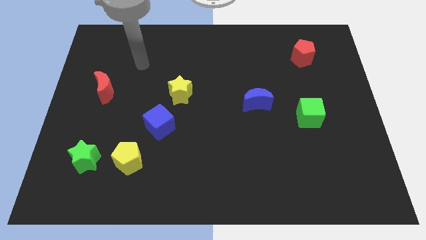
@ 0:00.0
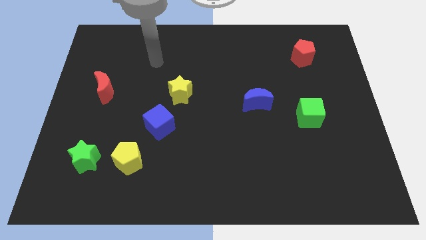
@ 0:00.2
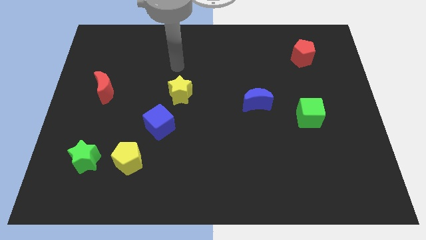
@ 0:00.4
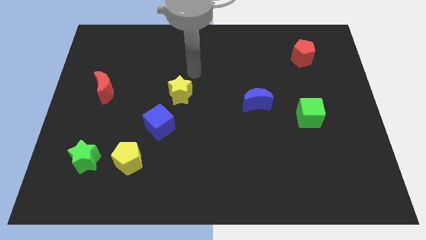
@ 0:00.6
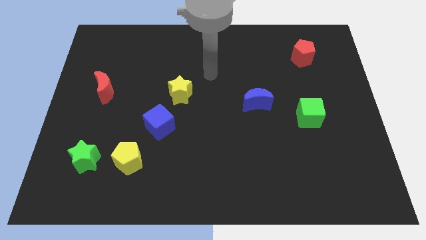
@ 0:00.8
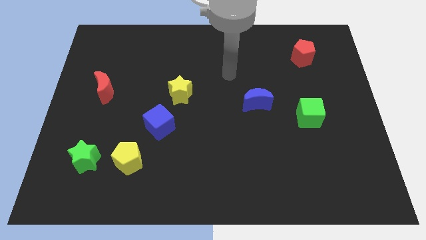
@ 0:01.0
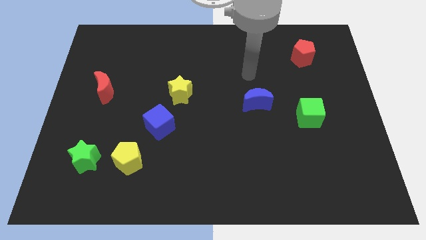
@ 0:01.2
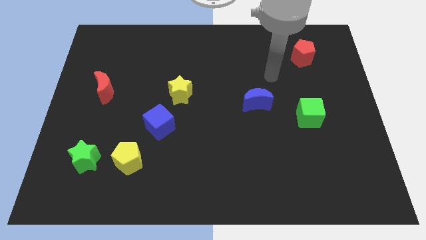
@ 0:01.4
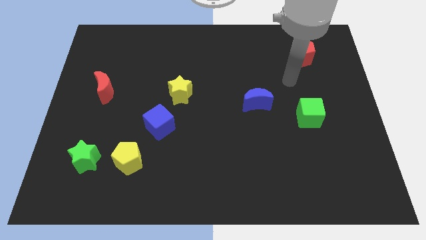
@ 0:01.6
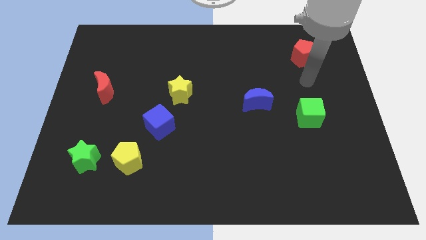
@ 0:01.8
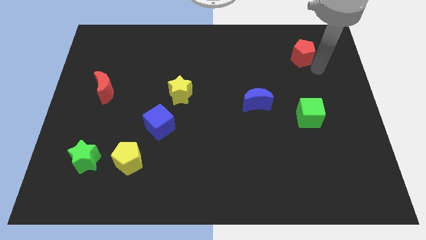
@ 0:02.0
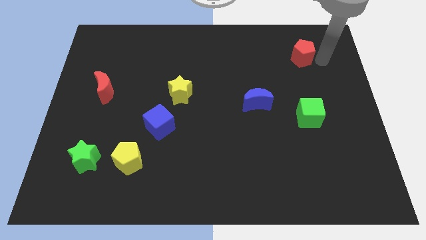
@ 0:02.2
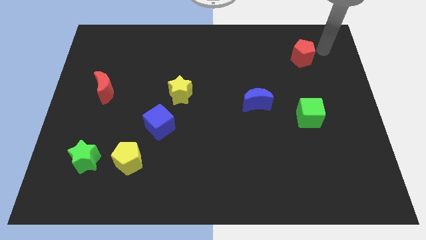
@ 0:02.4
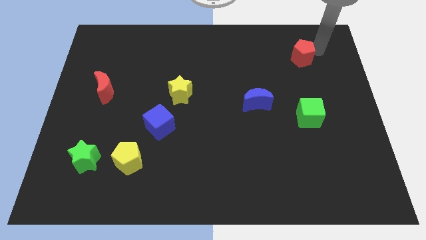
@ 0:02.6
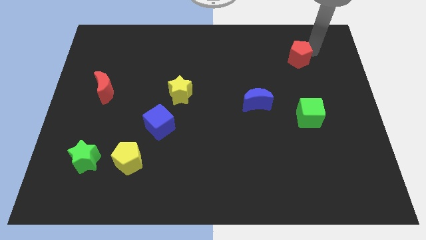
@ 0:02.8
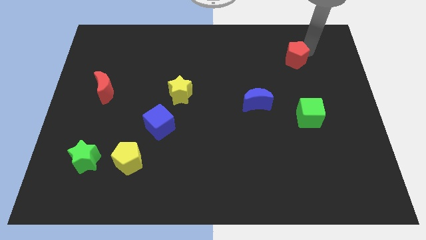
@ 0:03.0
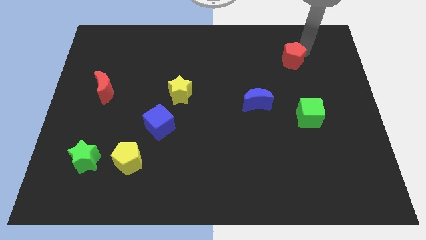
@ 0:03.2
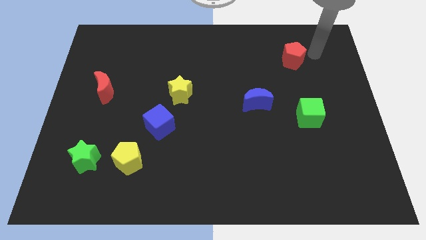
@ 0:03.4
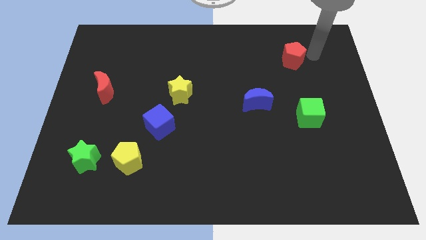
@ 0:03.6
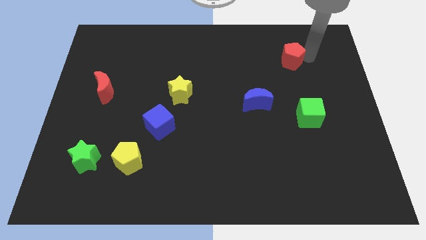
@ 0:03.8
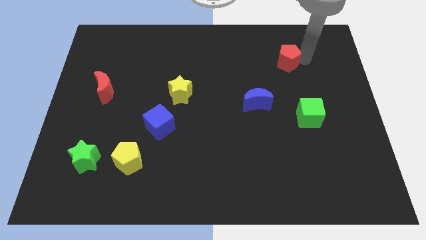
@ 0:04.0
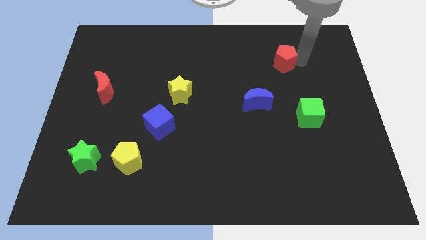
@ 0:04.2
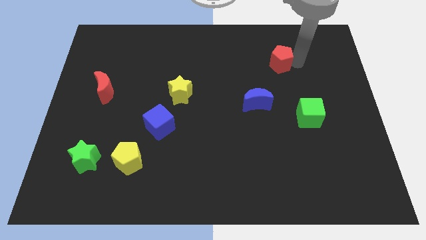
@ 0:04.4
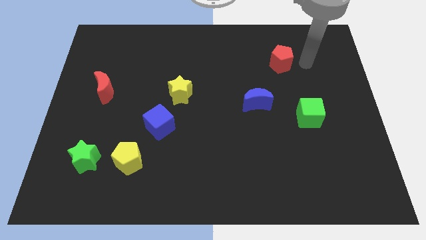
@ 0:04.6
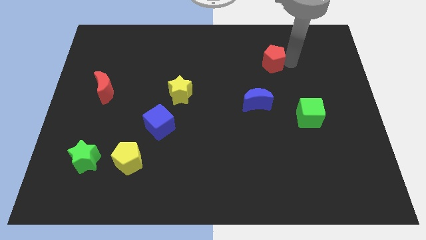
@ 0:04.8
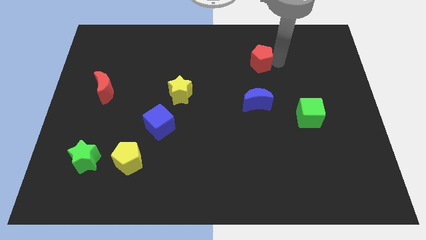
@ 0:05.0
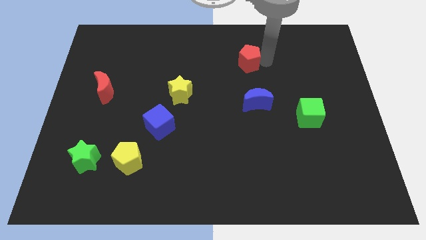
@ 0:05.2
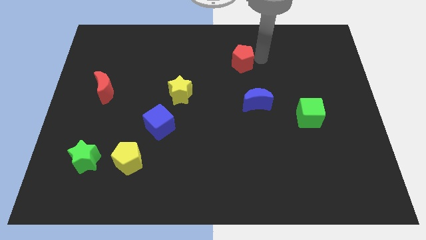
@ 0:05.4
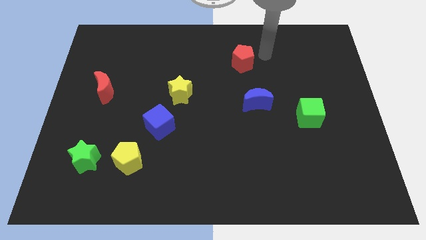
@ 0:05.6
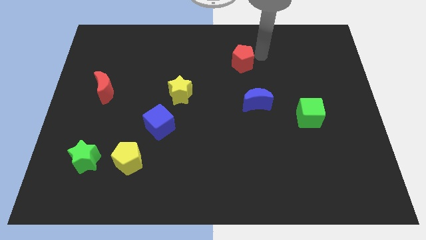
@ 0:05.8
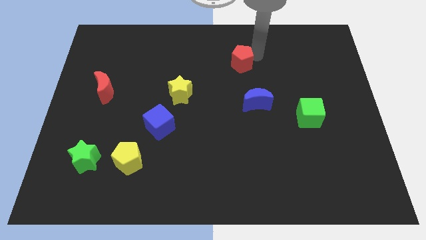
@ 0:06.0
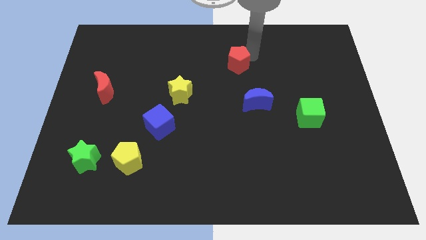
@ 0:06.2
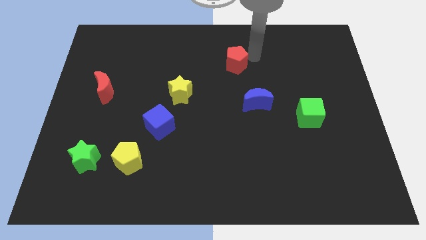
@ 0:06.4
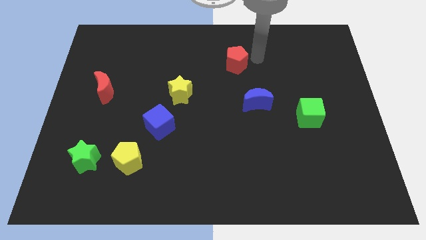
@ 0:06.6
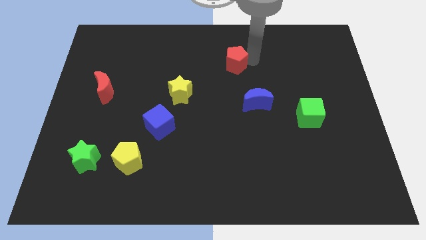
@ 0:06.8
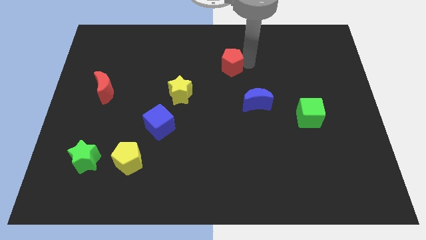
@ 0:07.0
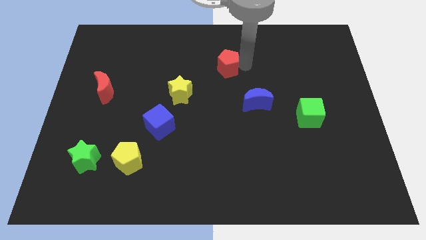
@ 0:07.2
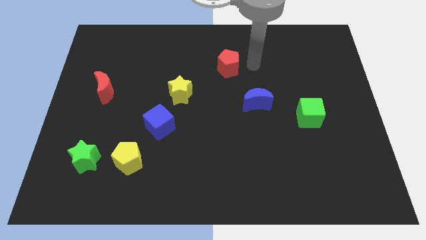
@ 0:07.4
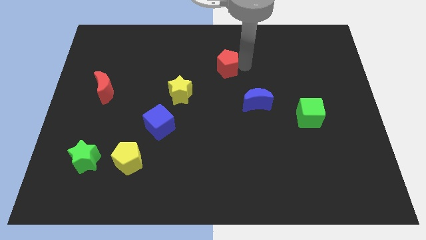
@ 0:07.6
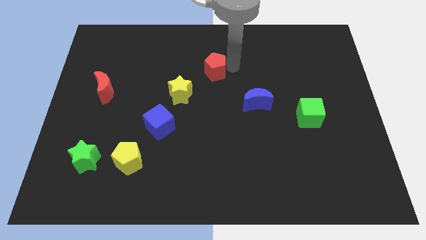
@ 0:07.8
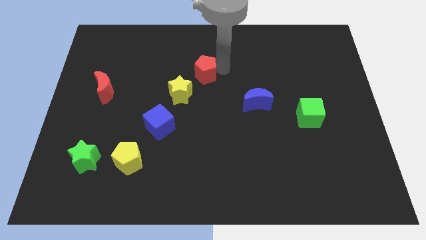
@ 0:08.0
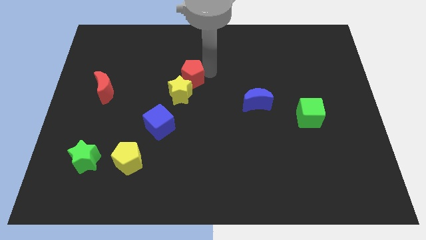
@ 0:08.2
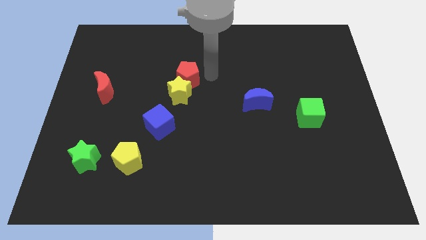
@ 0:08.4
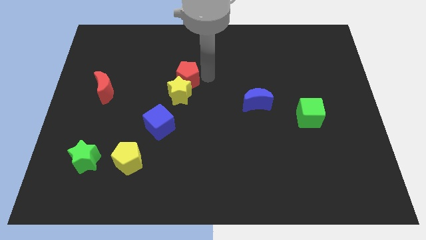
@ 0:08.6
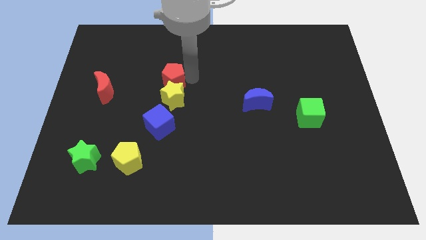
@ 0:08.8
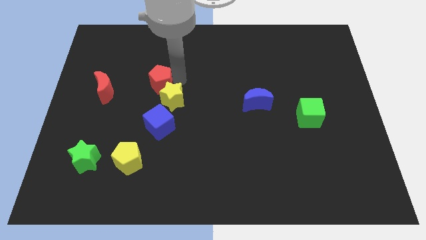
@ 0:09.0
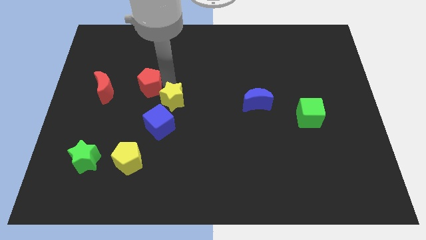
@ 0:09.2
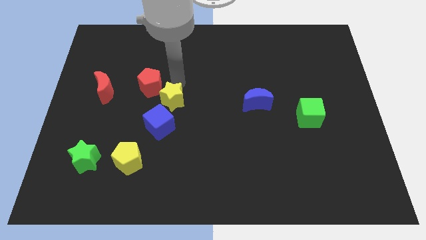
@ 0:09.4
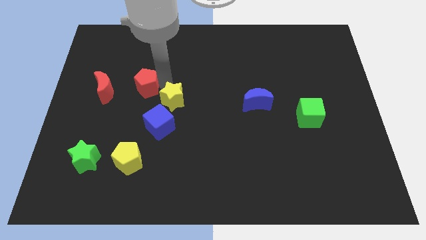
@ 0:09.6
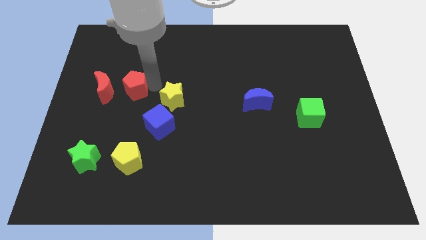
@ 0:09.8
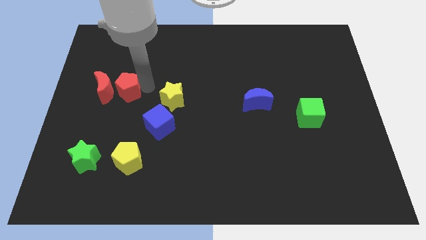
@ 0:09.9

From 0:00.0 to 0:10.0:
put the red pentagon towards the red moon
